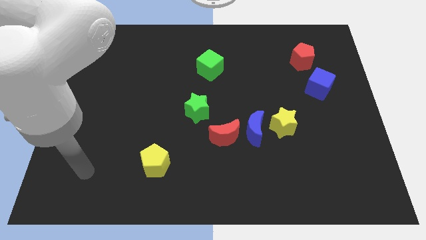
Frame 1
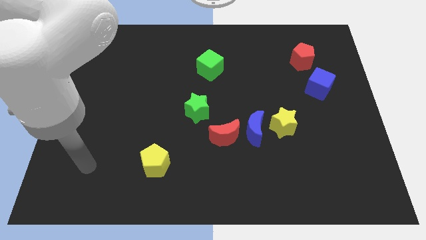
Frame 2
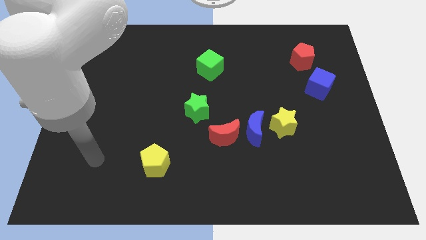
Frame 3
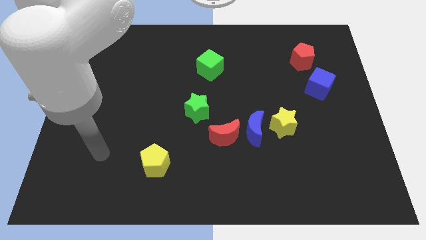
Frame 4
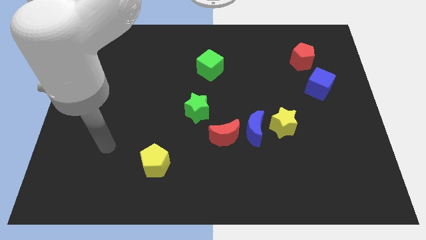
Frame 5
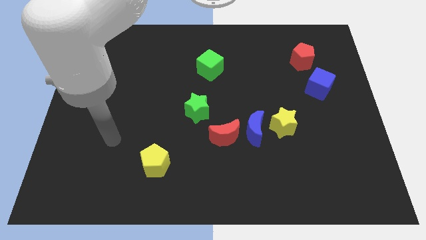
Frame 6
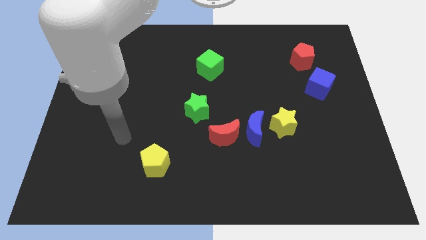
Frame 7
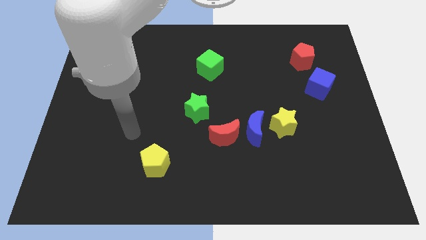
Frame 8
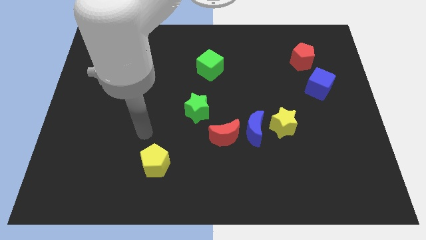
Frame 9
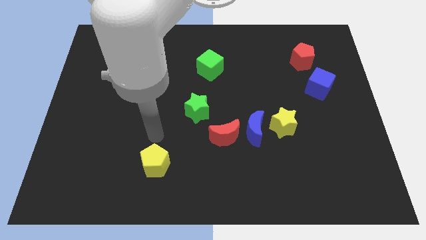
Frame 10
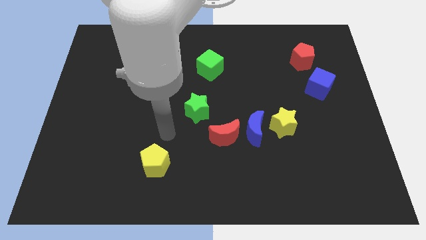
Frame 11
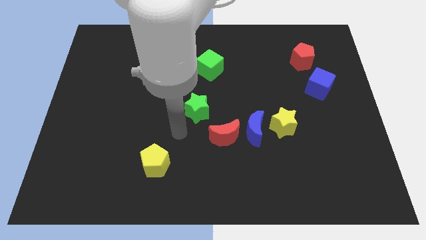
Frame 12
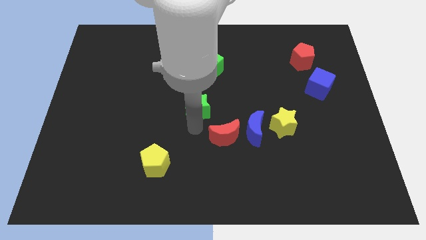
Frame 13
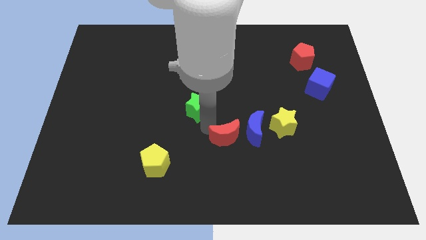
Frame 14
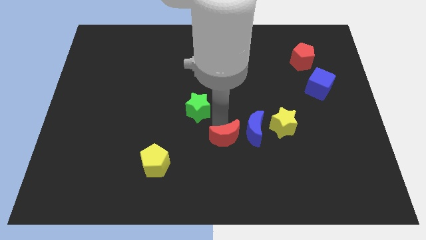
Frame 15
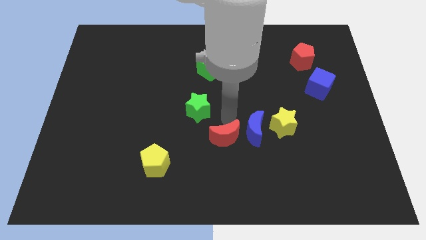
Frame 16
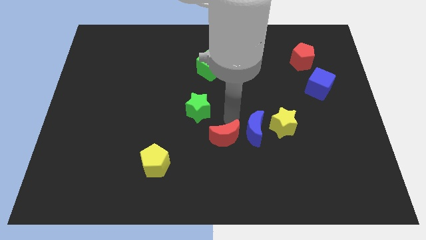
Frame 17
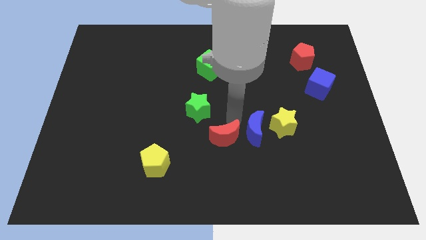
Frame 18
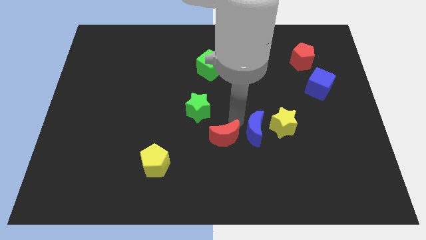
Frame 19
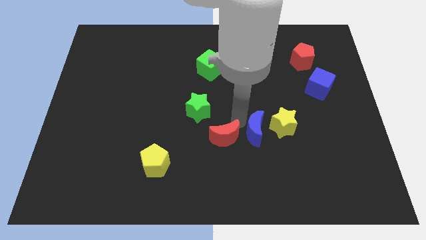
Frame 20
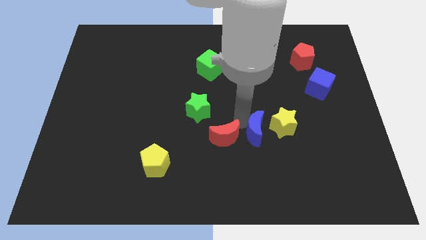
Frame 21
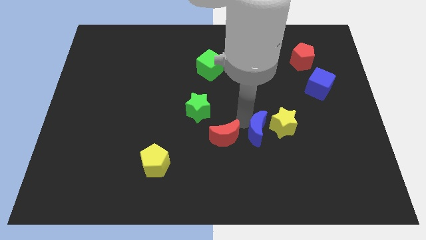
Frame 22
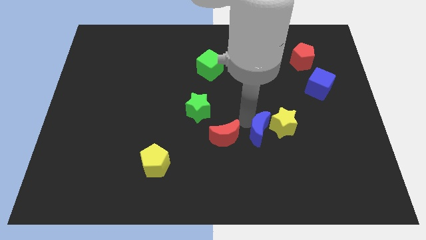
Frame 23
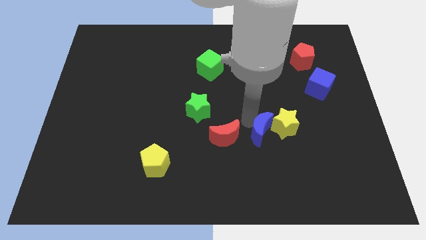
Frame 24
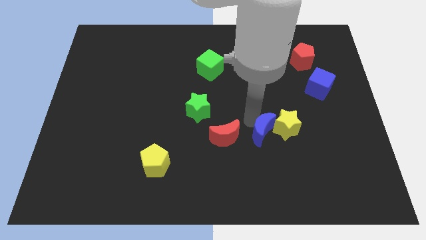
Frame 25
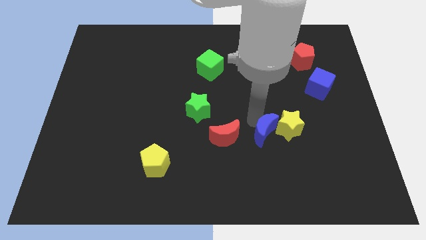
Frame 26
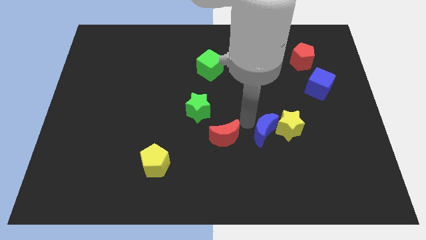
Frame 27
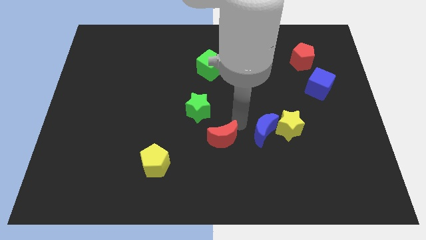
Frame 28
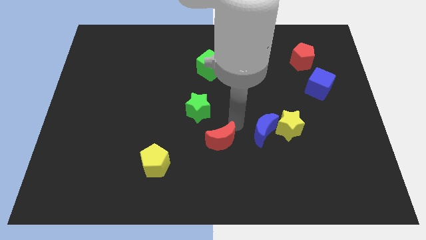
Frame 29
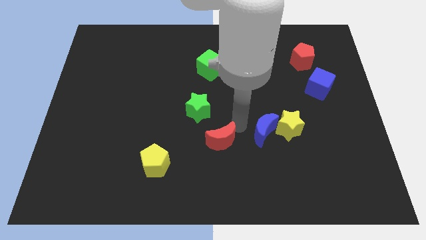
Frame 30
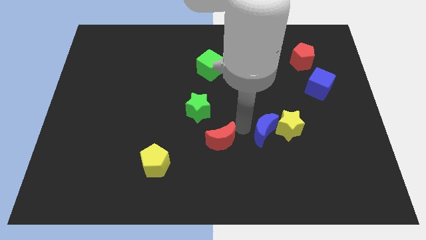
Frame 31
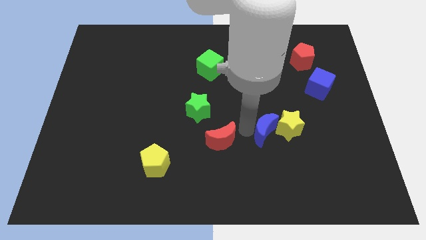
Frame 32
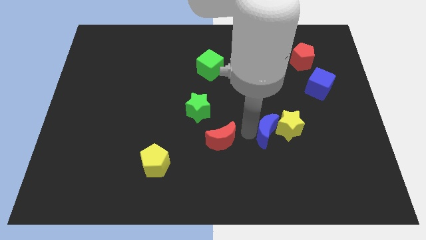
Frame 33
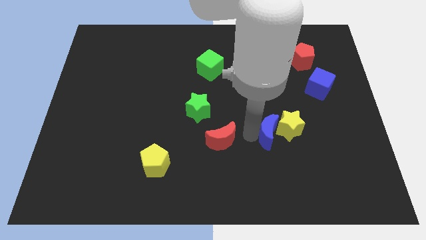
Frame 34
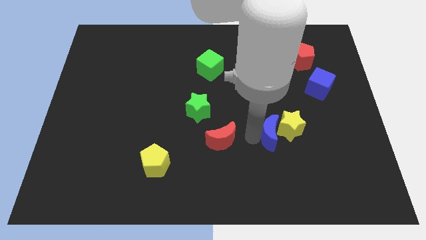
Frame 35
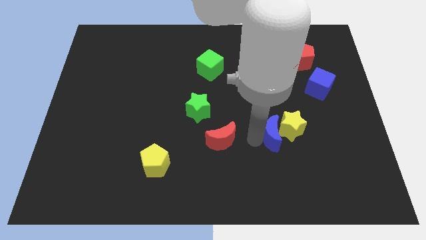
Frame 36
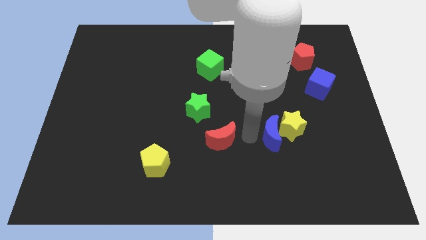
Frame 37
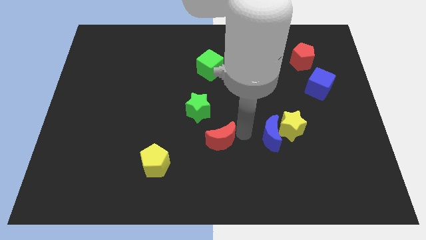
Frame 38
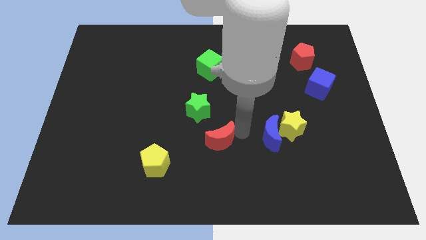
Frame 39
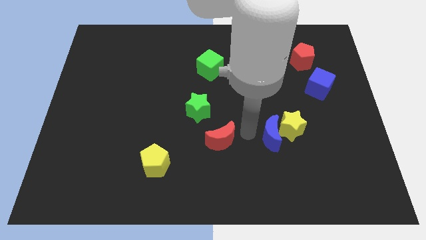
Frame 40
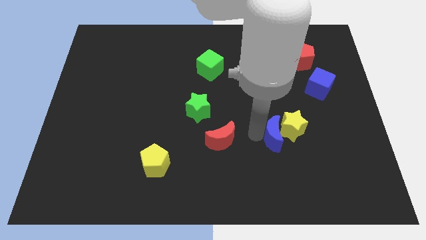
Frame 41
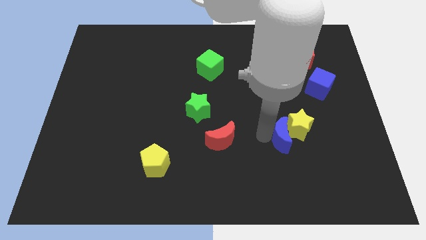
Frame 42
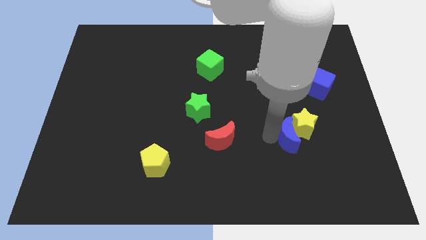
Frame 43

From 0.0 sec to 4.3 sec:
move the blue moon somewhat to the right

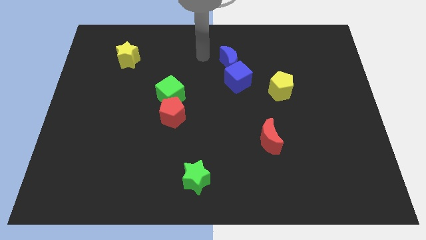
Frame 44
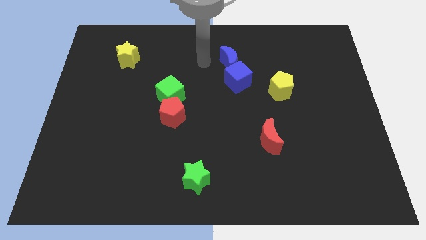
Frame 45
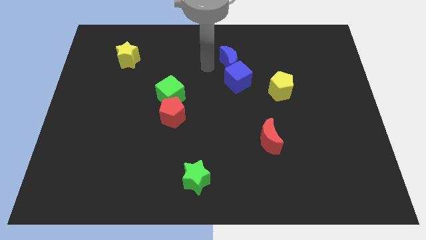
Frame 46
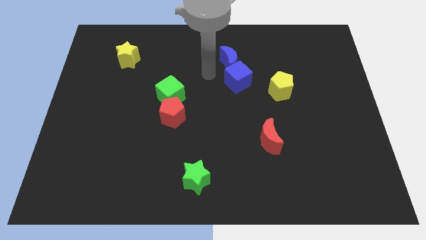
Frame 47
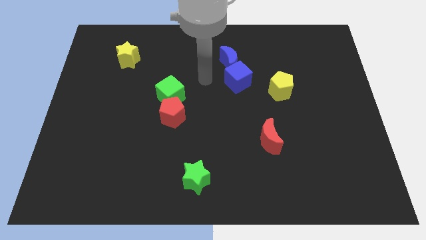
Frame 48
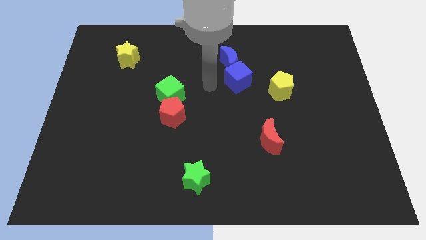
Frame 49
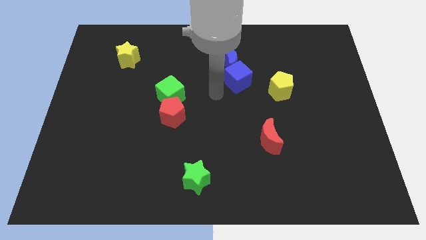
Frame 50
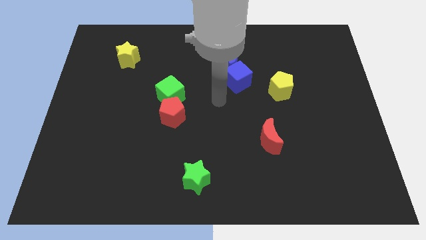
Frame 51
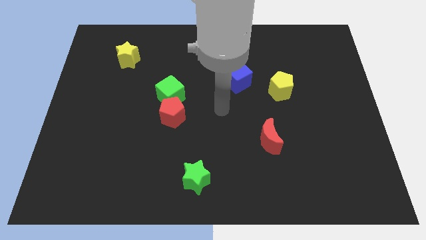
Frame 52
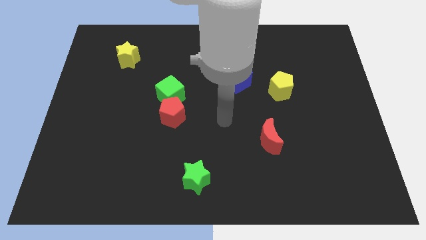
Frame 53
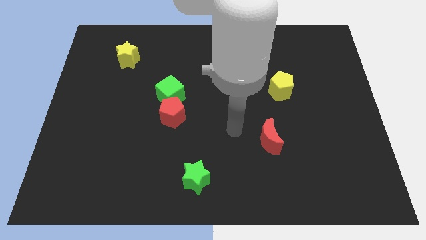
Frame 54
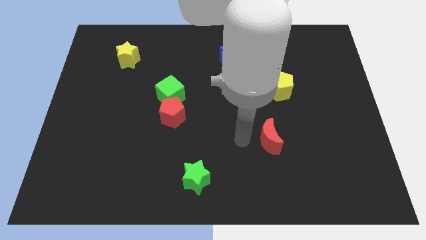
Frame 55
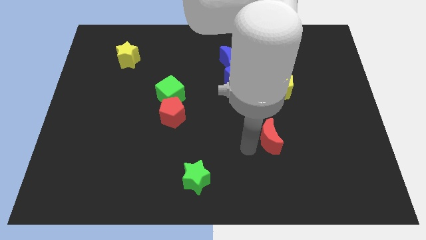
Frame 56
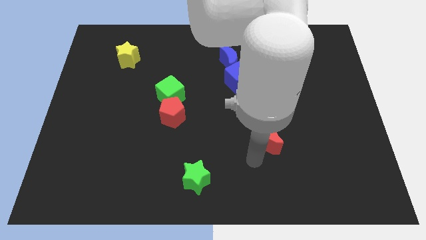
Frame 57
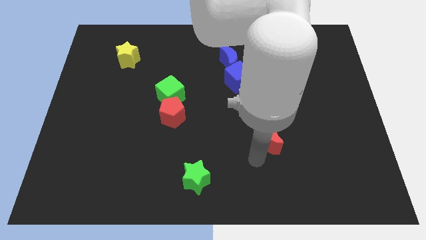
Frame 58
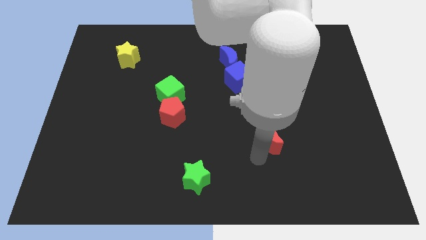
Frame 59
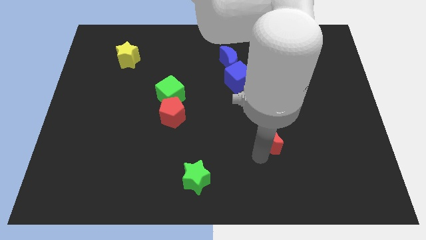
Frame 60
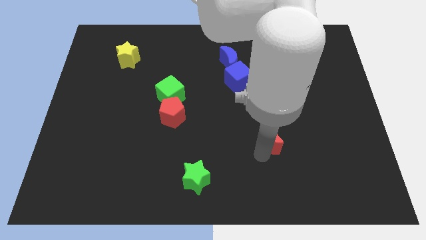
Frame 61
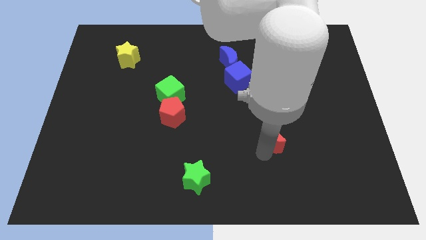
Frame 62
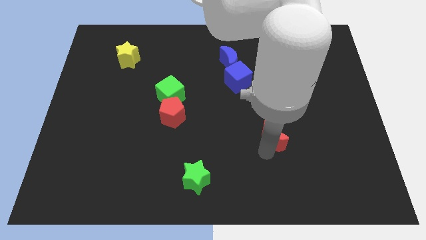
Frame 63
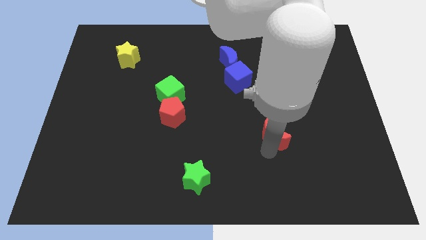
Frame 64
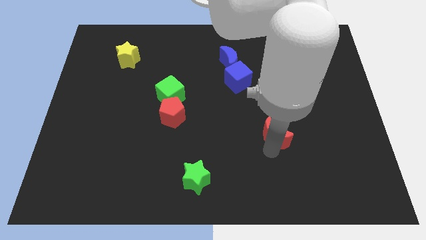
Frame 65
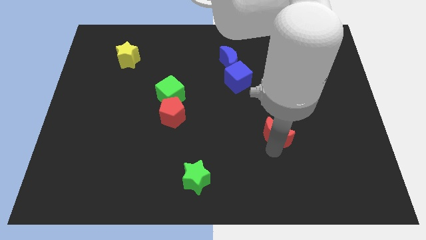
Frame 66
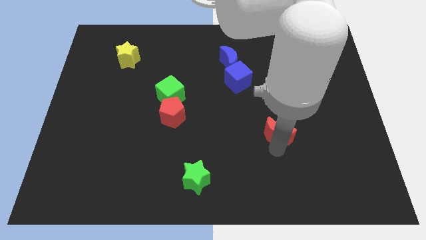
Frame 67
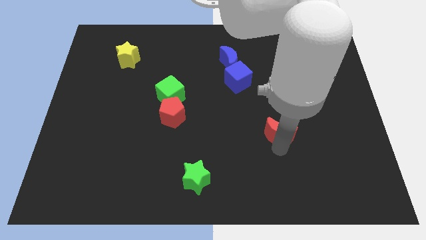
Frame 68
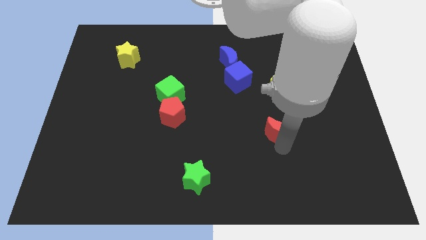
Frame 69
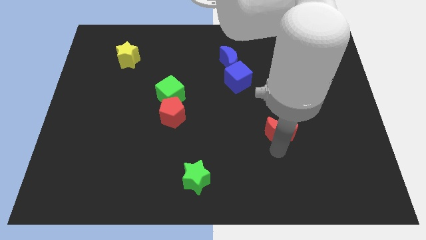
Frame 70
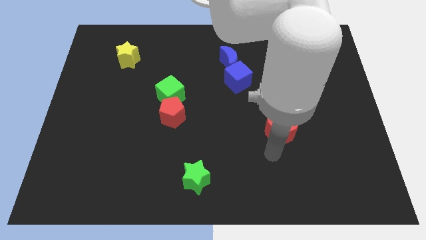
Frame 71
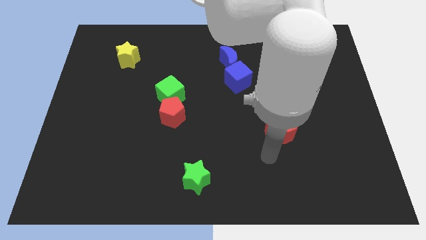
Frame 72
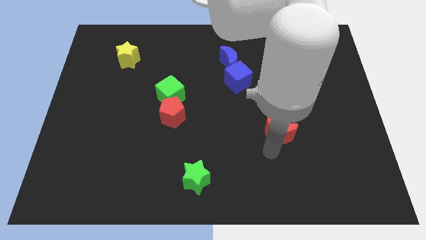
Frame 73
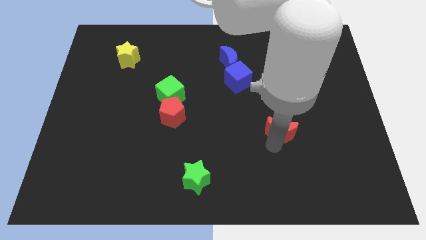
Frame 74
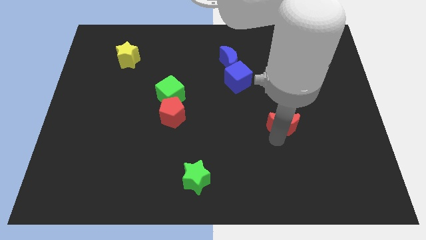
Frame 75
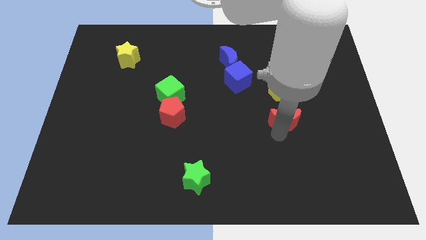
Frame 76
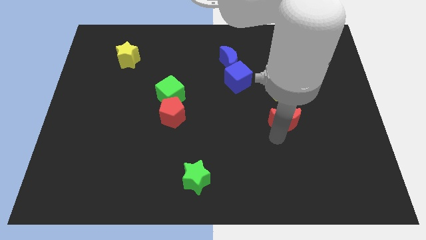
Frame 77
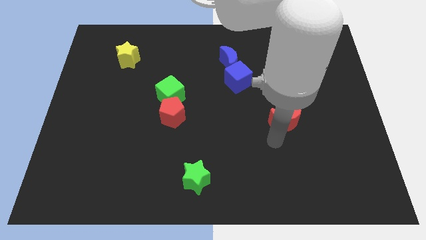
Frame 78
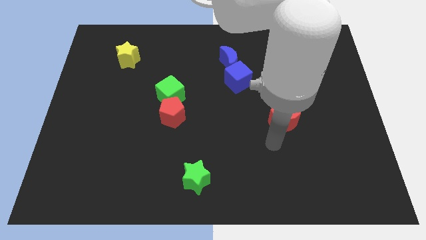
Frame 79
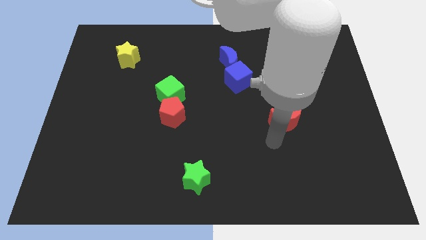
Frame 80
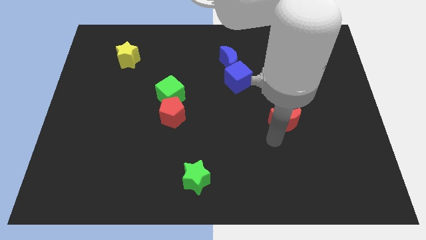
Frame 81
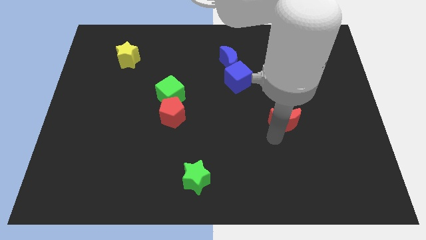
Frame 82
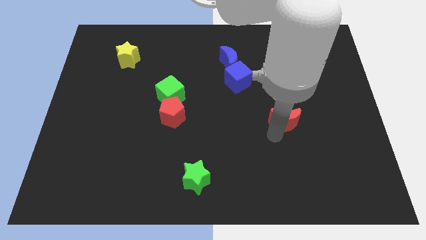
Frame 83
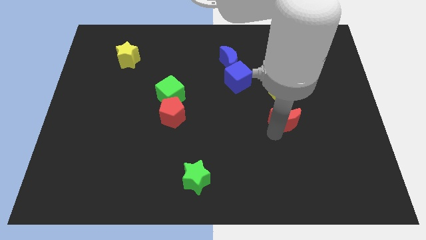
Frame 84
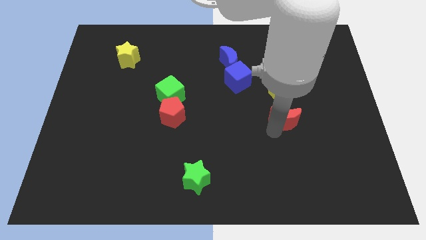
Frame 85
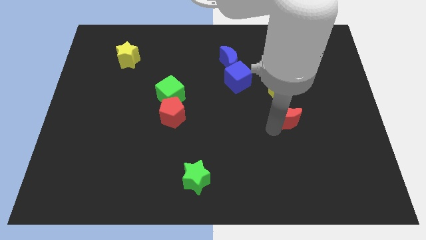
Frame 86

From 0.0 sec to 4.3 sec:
push the red moon slightly up and then to the right
